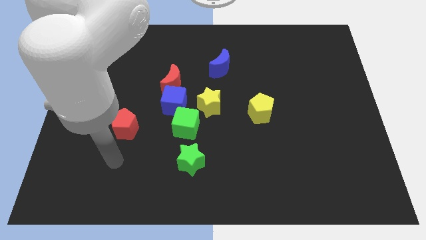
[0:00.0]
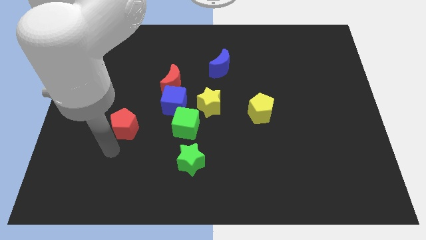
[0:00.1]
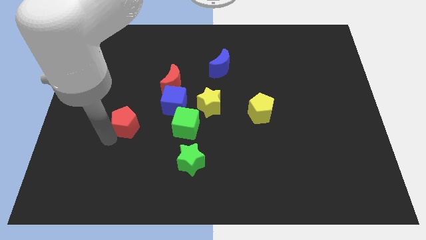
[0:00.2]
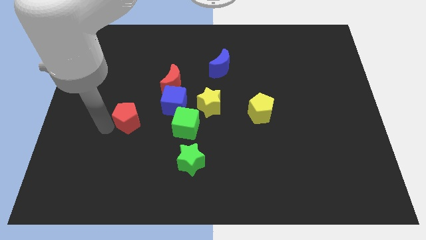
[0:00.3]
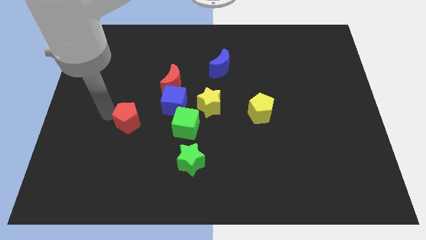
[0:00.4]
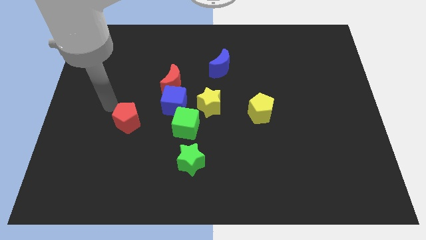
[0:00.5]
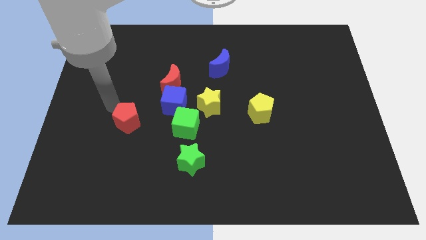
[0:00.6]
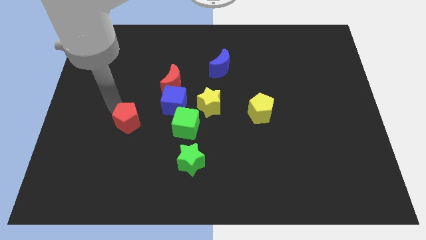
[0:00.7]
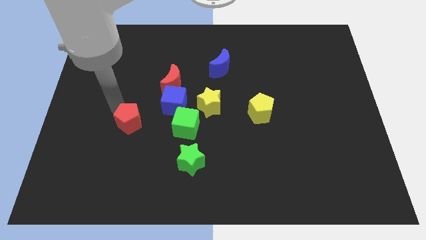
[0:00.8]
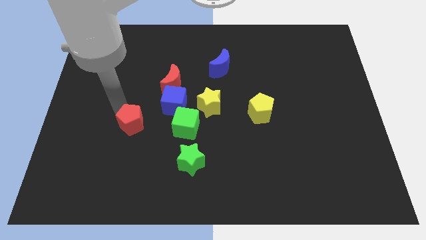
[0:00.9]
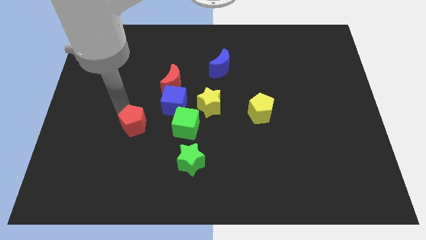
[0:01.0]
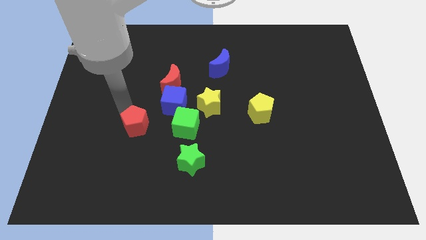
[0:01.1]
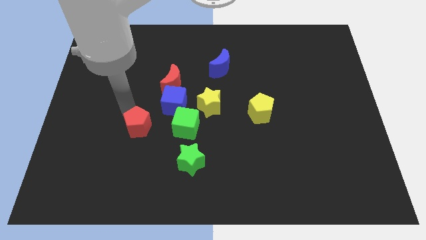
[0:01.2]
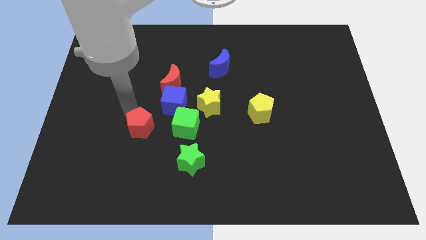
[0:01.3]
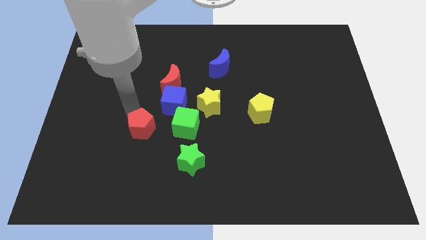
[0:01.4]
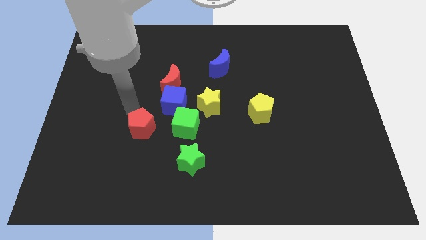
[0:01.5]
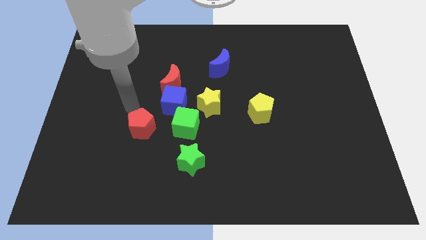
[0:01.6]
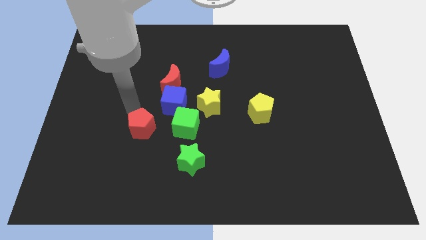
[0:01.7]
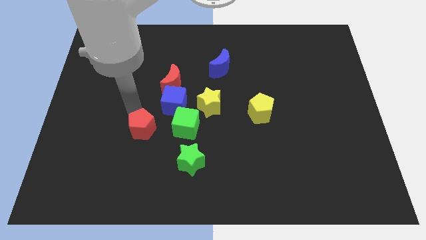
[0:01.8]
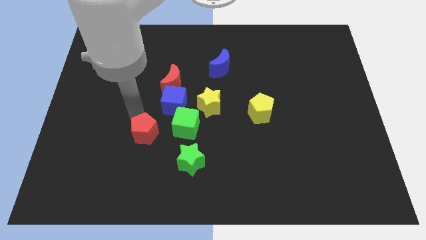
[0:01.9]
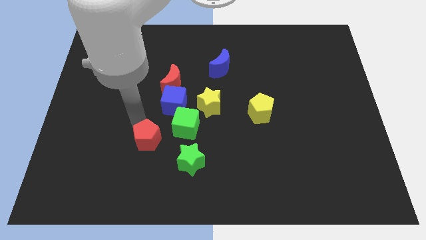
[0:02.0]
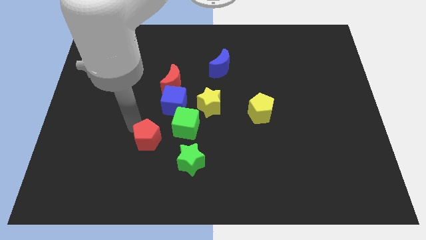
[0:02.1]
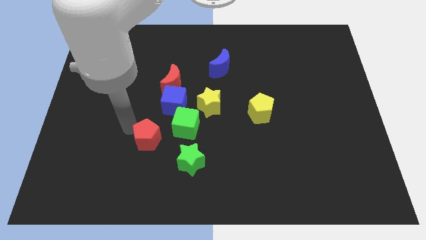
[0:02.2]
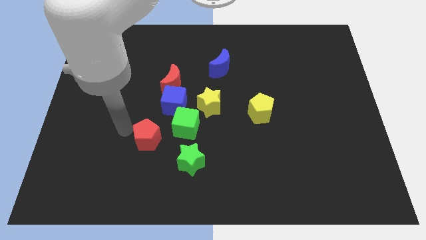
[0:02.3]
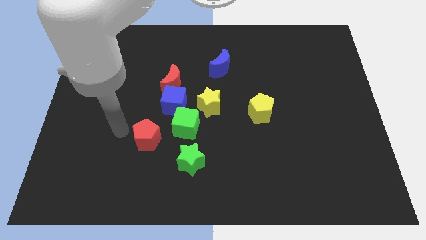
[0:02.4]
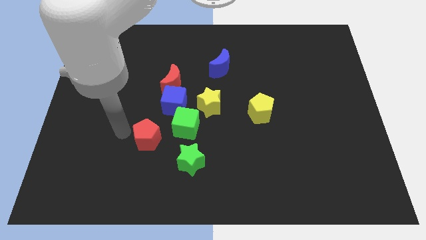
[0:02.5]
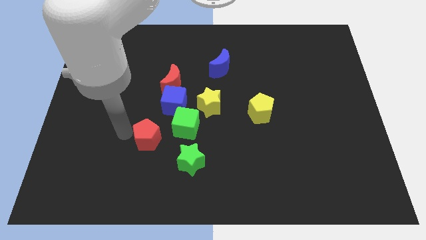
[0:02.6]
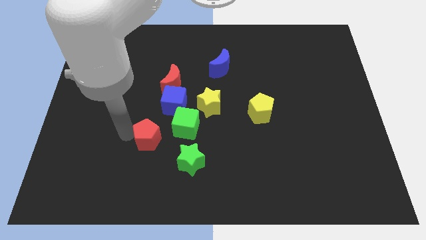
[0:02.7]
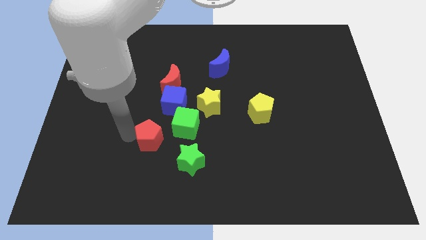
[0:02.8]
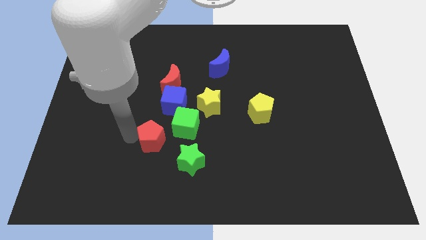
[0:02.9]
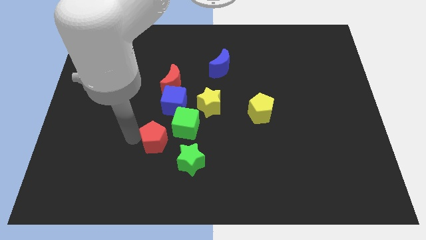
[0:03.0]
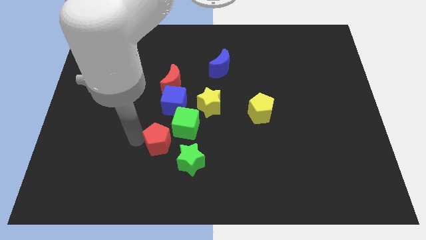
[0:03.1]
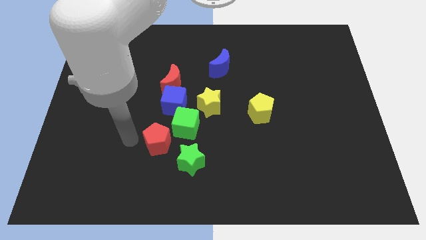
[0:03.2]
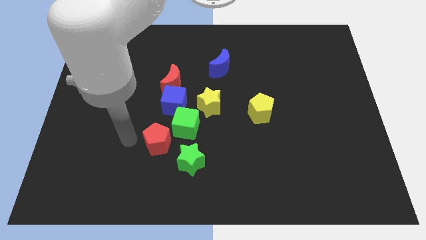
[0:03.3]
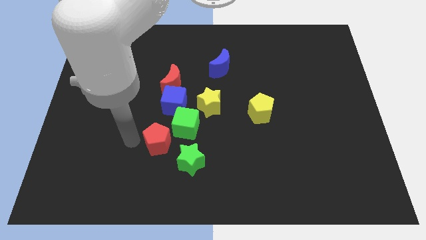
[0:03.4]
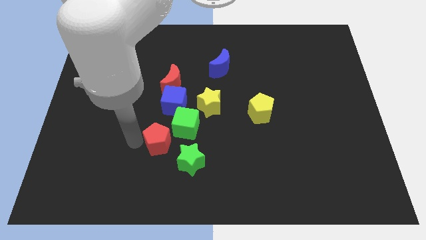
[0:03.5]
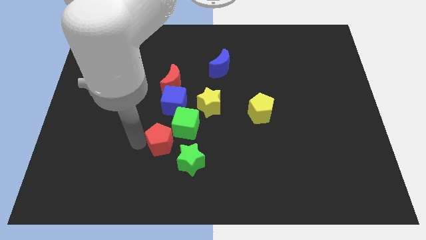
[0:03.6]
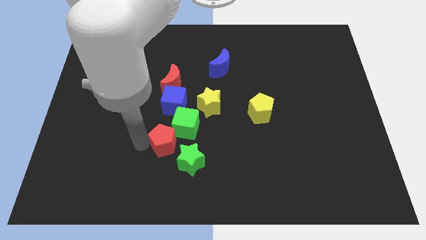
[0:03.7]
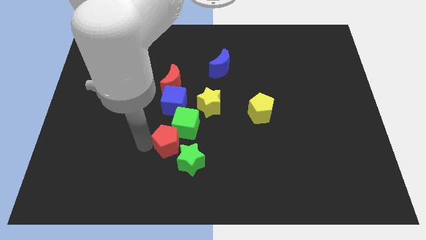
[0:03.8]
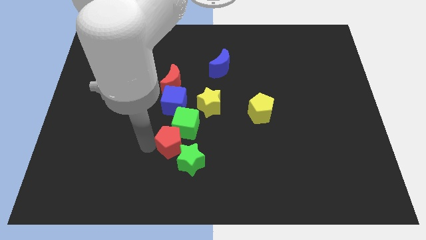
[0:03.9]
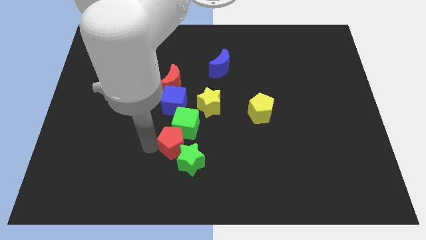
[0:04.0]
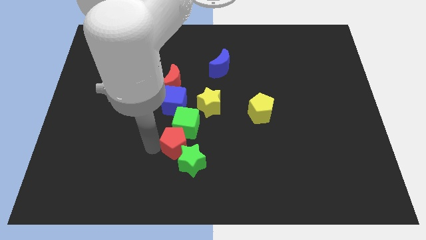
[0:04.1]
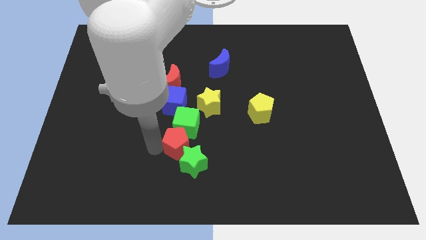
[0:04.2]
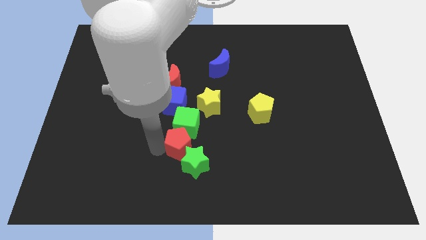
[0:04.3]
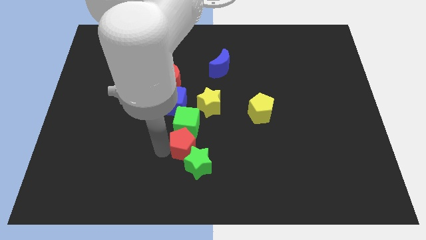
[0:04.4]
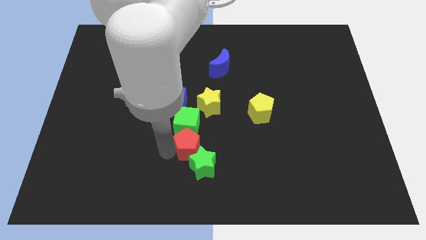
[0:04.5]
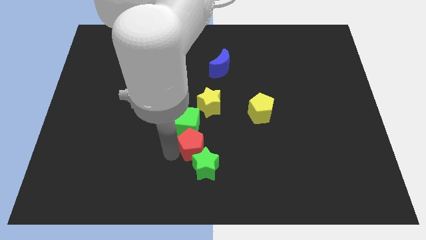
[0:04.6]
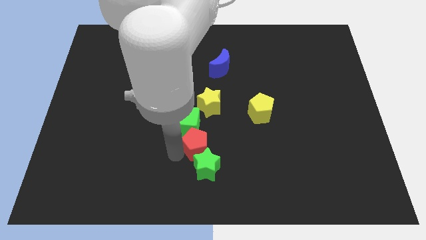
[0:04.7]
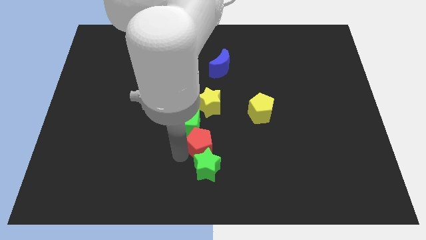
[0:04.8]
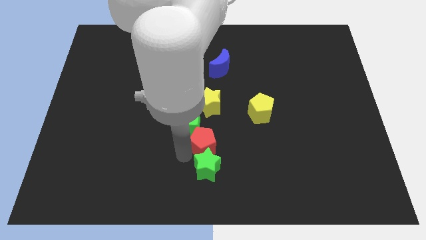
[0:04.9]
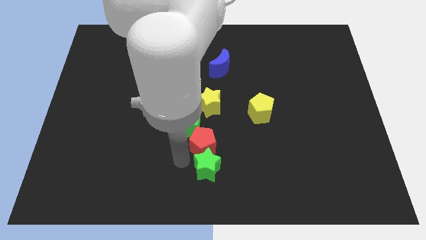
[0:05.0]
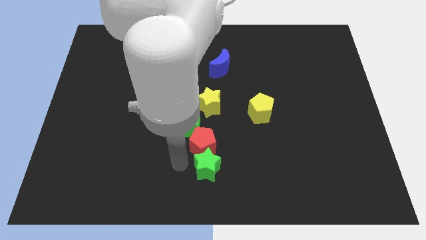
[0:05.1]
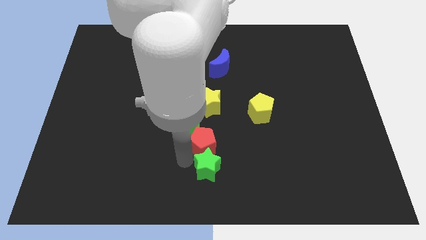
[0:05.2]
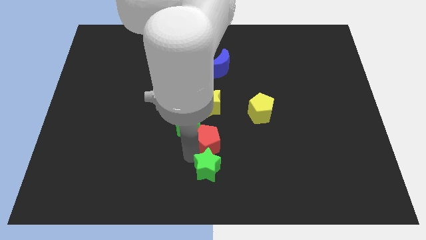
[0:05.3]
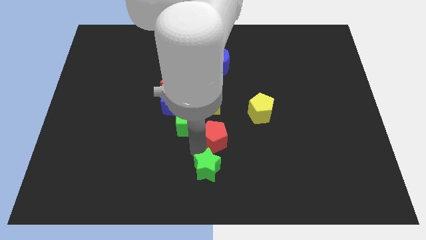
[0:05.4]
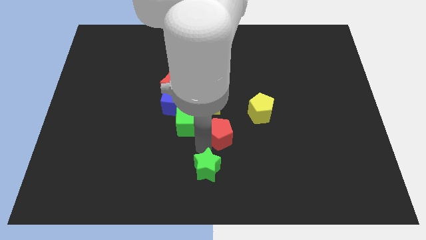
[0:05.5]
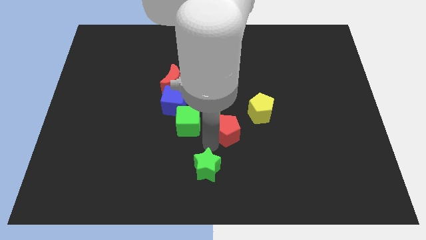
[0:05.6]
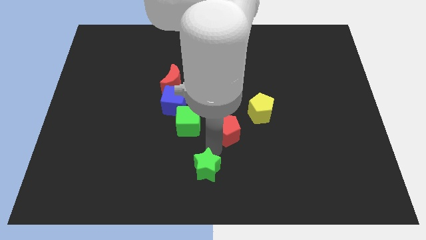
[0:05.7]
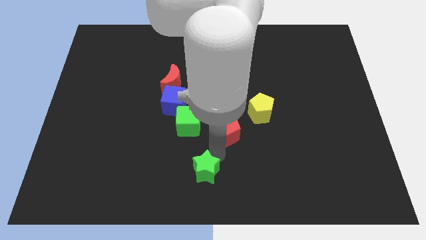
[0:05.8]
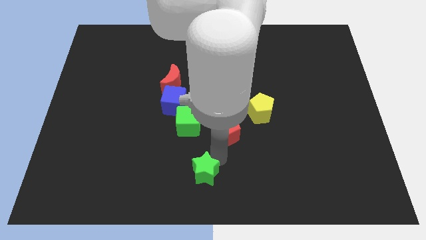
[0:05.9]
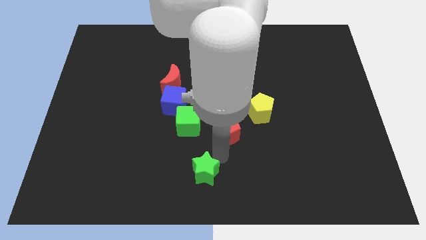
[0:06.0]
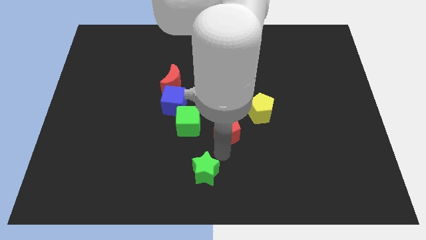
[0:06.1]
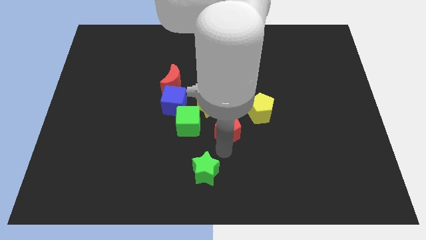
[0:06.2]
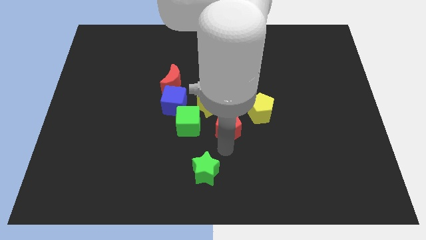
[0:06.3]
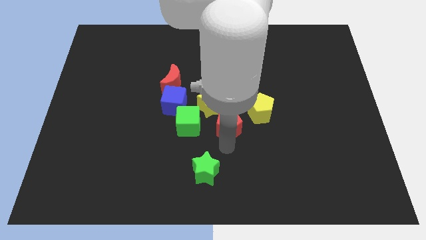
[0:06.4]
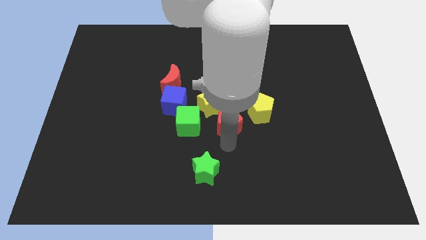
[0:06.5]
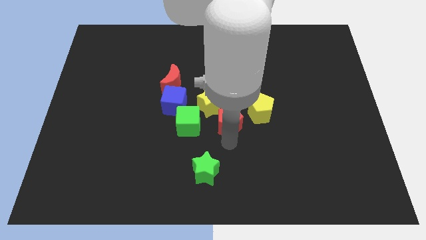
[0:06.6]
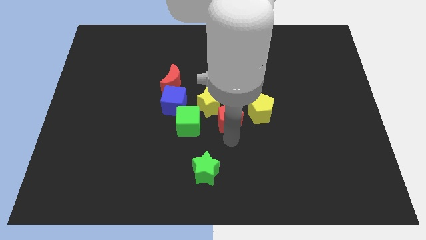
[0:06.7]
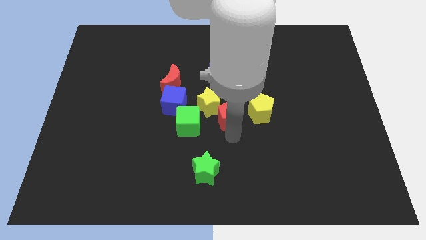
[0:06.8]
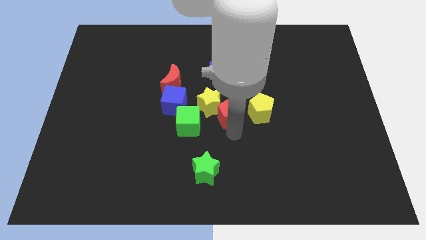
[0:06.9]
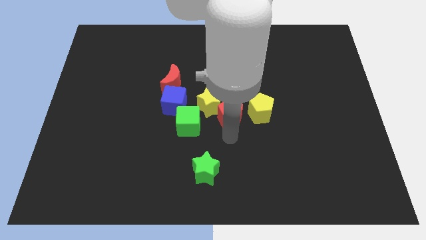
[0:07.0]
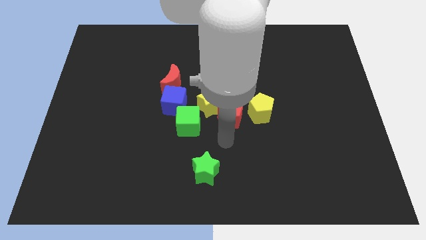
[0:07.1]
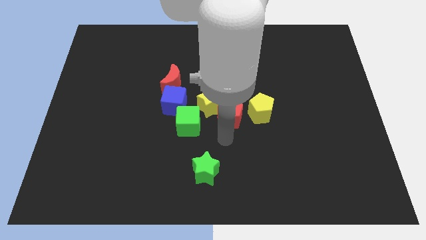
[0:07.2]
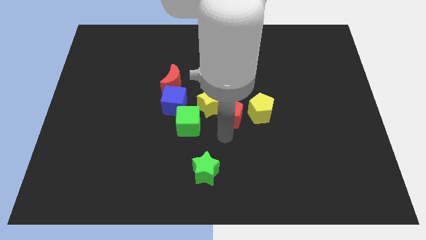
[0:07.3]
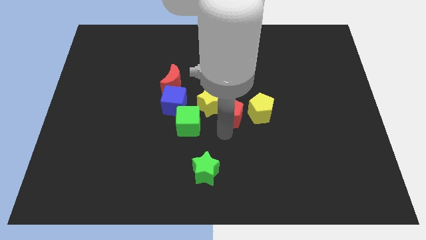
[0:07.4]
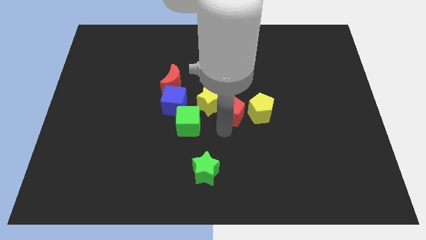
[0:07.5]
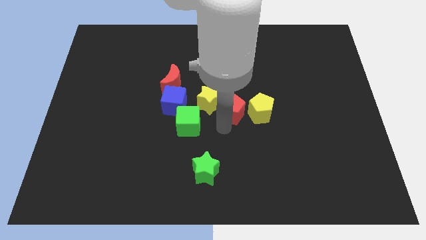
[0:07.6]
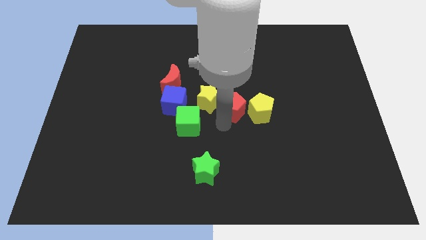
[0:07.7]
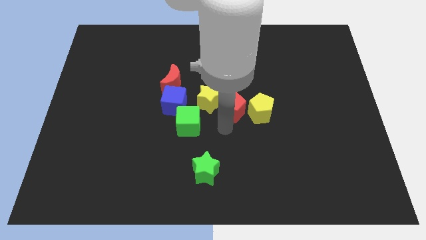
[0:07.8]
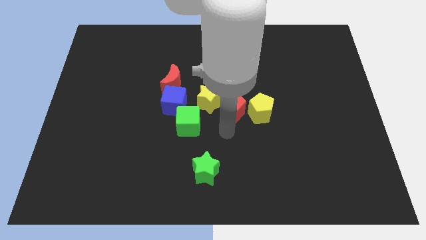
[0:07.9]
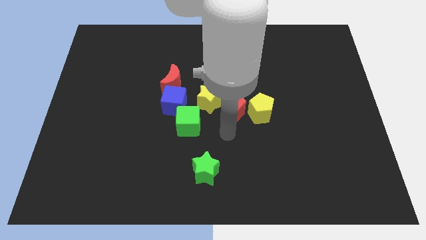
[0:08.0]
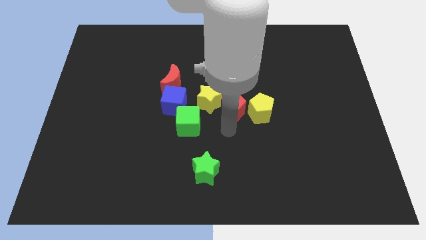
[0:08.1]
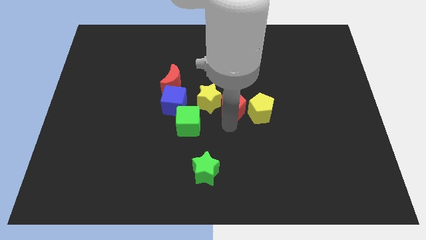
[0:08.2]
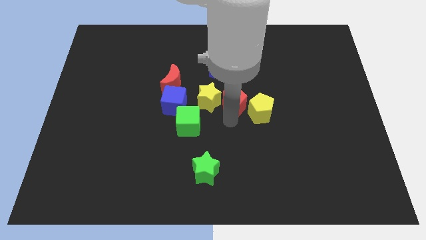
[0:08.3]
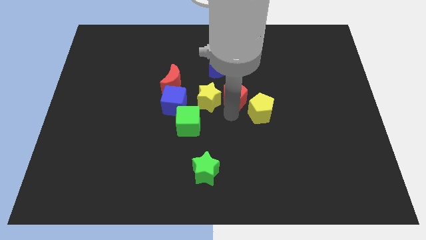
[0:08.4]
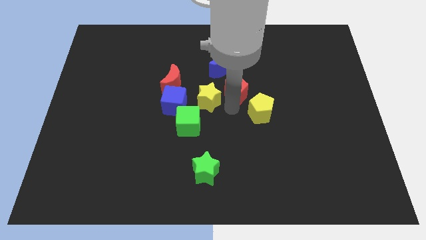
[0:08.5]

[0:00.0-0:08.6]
slide the red pentagon diagonally down and to the right of the blue moon
